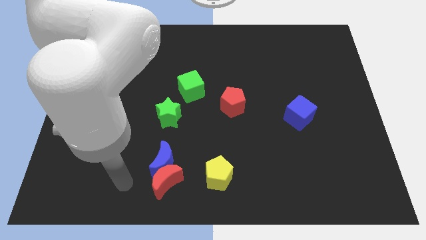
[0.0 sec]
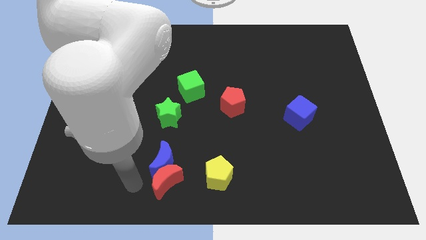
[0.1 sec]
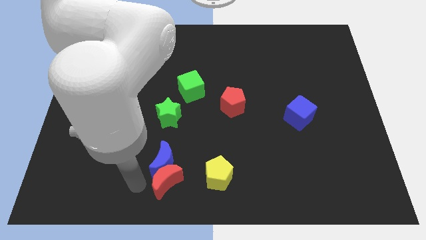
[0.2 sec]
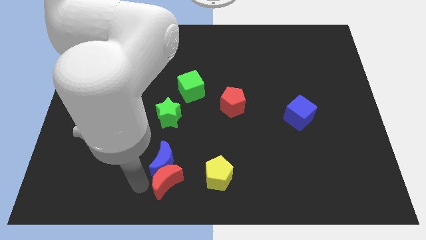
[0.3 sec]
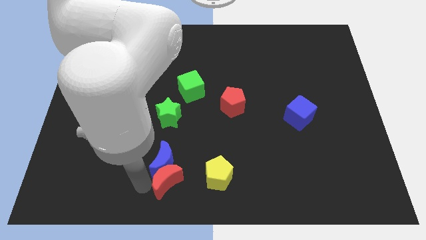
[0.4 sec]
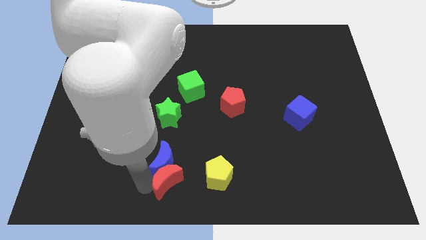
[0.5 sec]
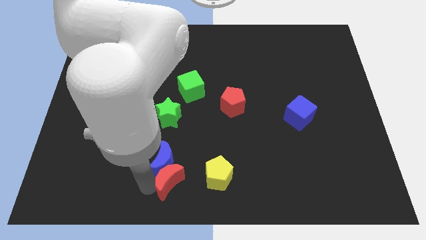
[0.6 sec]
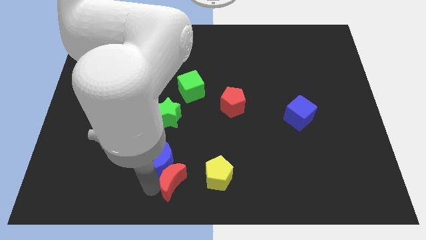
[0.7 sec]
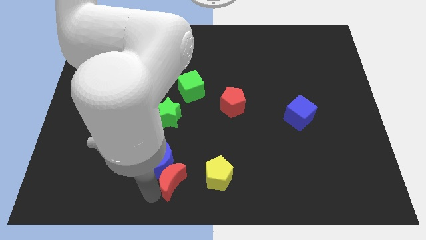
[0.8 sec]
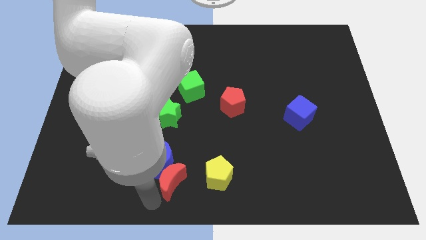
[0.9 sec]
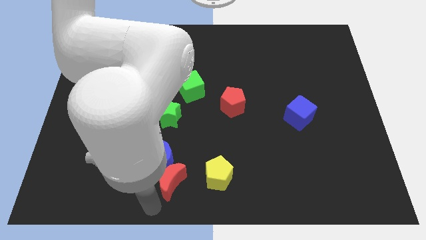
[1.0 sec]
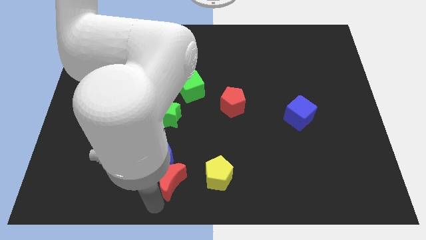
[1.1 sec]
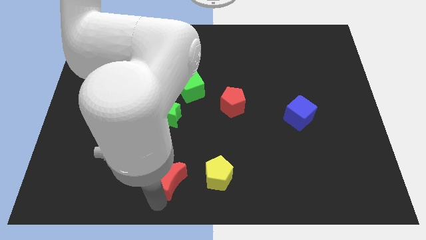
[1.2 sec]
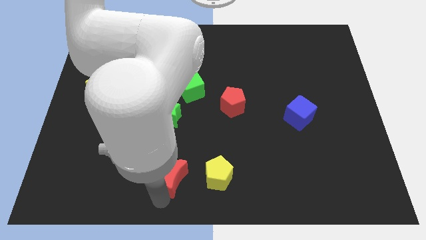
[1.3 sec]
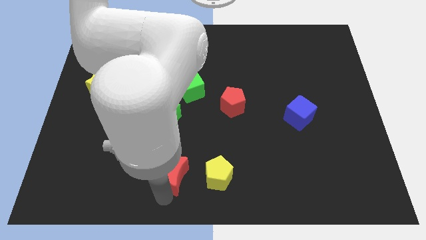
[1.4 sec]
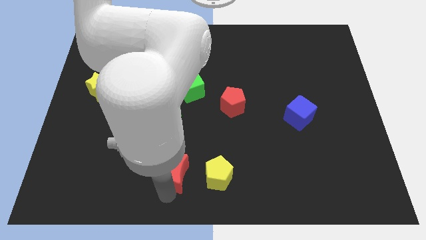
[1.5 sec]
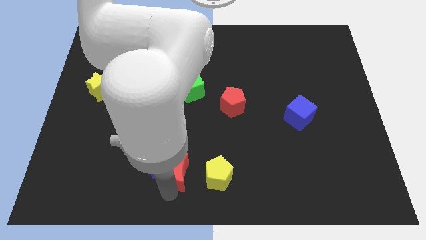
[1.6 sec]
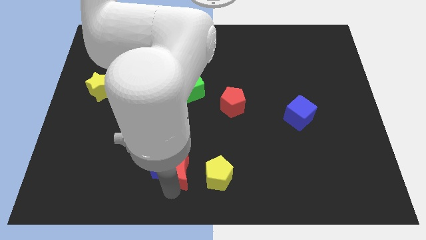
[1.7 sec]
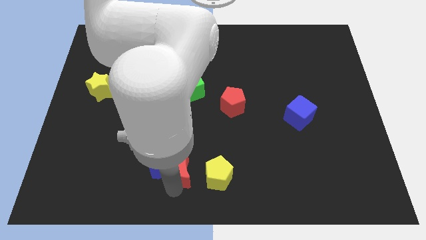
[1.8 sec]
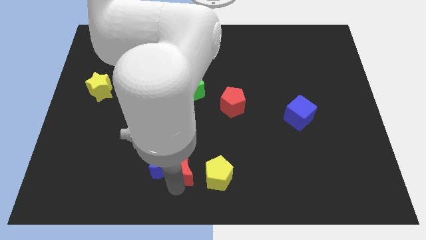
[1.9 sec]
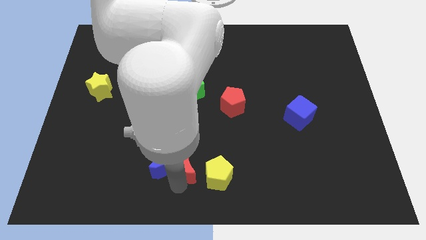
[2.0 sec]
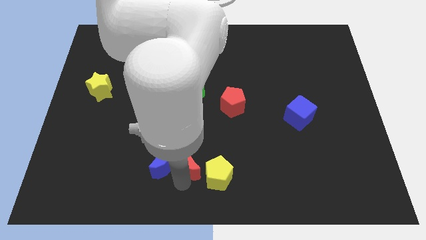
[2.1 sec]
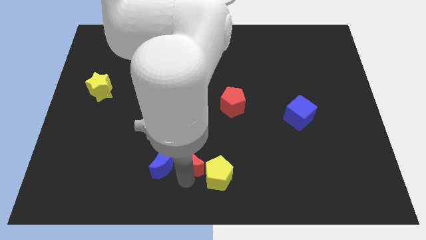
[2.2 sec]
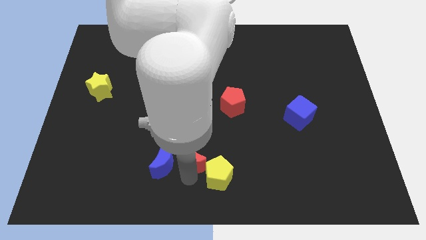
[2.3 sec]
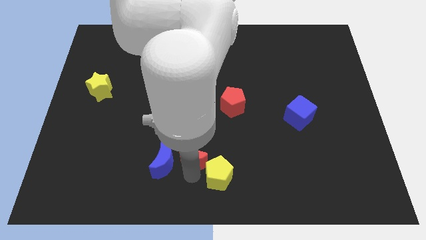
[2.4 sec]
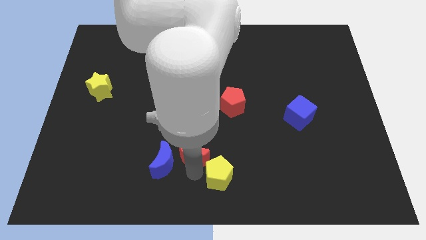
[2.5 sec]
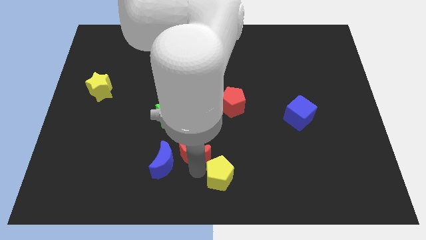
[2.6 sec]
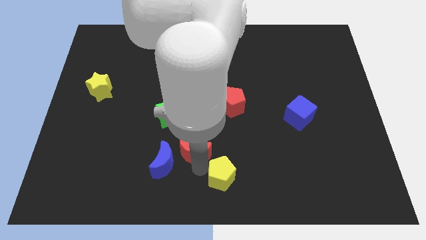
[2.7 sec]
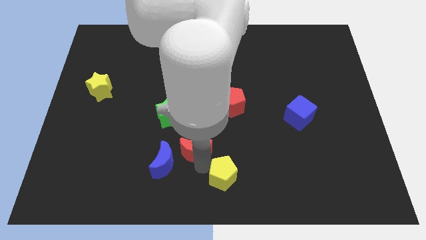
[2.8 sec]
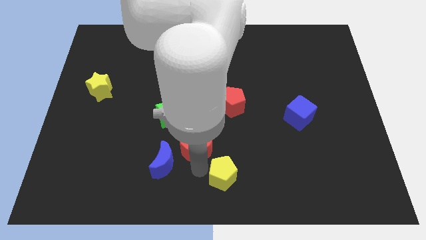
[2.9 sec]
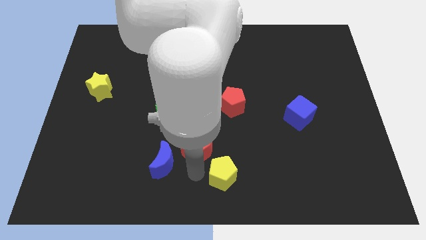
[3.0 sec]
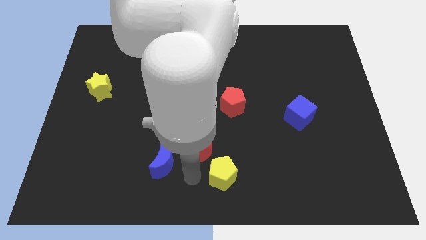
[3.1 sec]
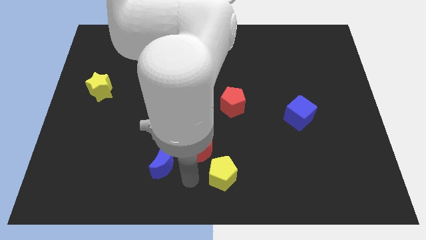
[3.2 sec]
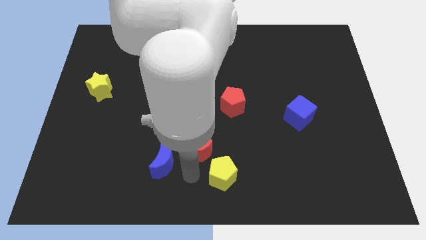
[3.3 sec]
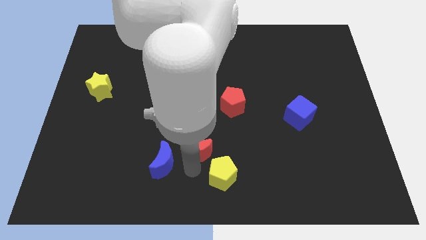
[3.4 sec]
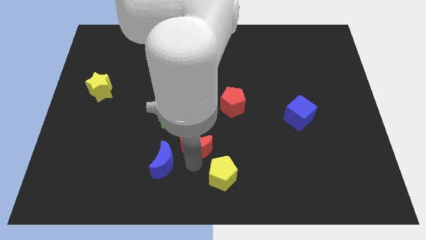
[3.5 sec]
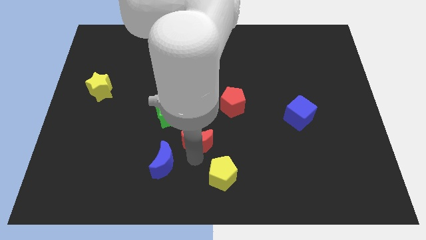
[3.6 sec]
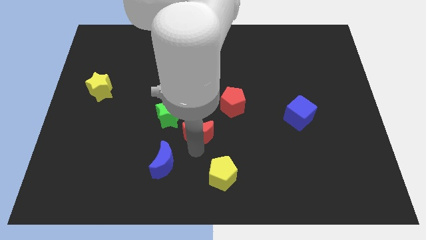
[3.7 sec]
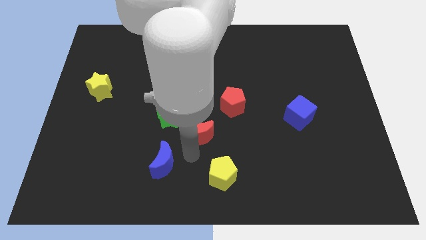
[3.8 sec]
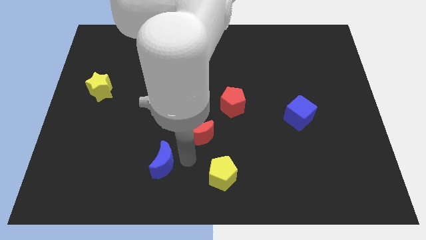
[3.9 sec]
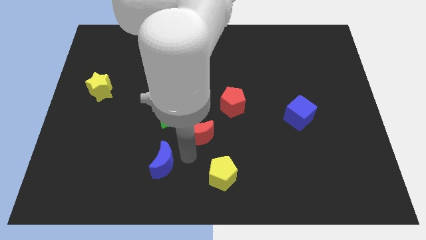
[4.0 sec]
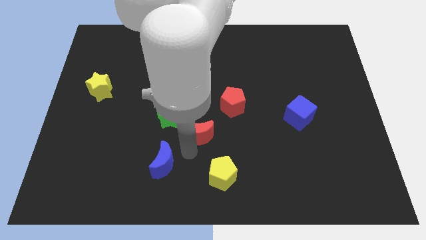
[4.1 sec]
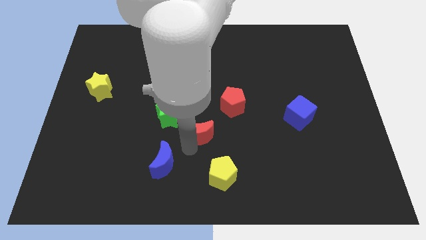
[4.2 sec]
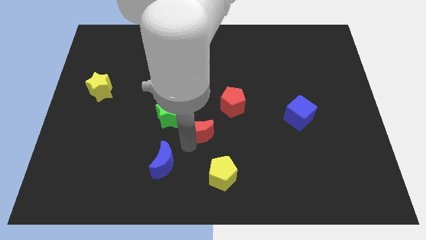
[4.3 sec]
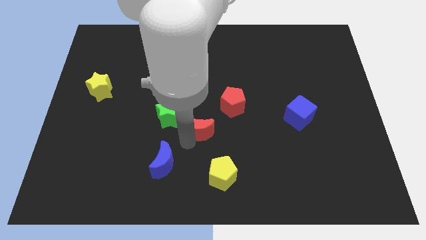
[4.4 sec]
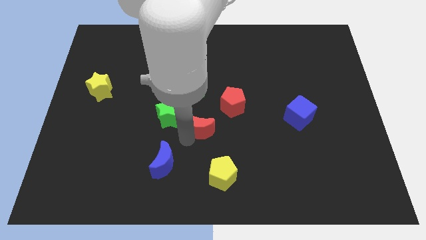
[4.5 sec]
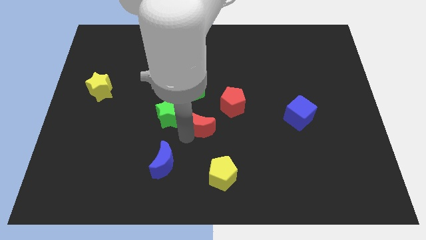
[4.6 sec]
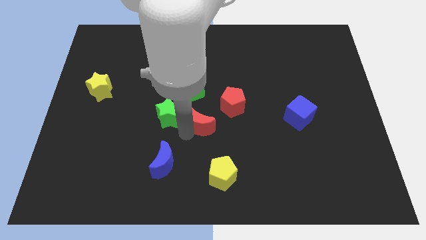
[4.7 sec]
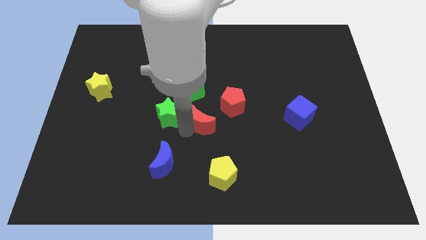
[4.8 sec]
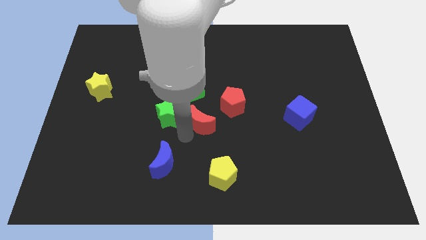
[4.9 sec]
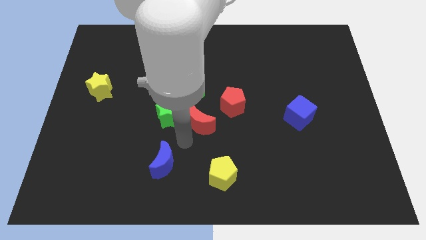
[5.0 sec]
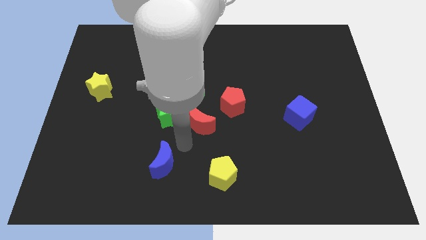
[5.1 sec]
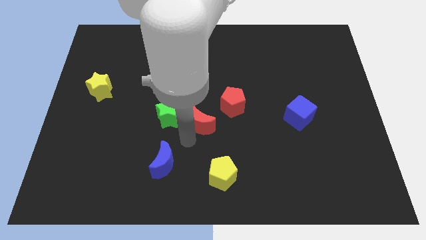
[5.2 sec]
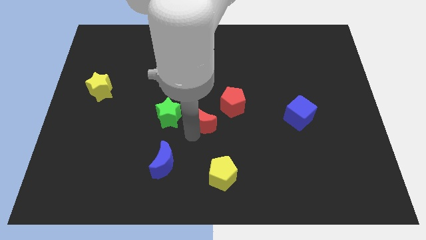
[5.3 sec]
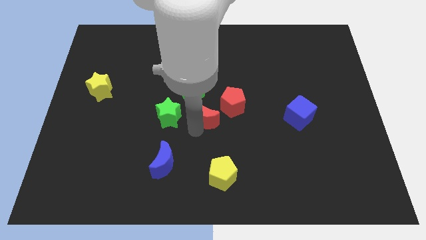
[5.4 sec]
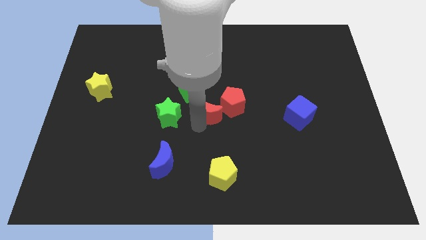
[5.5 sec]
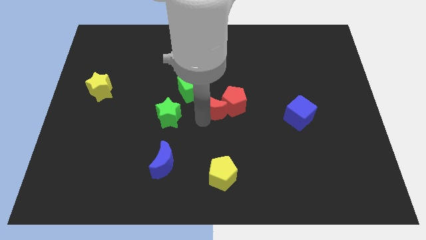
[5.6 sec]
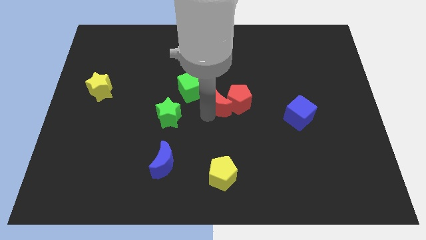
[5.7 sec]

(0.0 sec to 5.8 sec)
push the red moon just right of the green cube

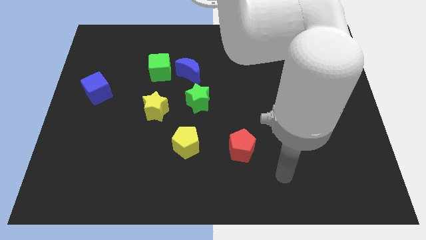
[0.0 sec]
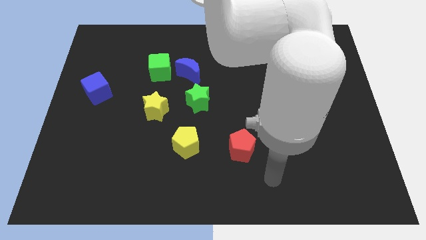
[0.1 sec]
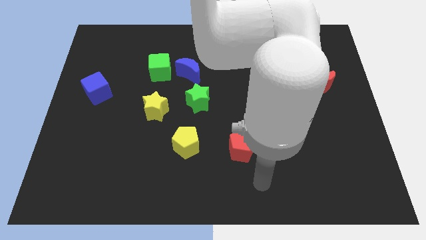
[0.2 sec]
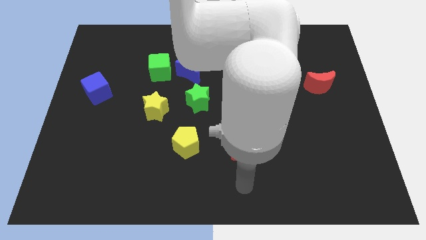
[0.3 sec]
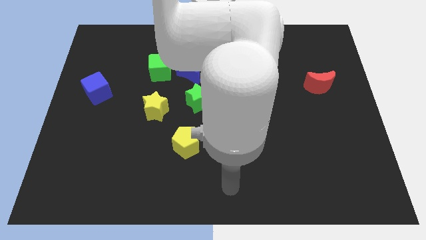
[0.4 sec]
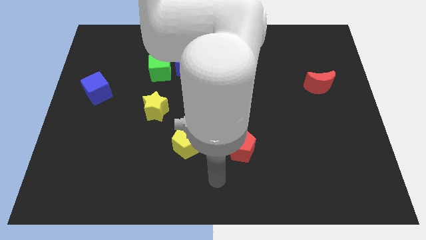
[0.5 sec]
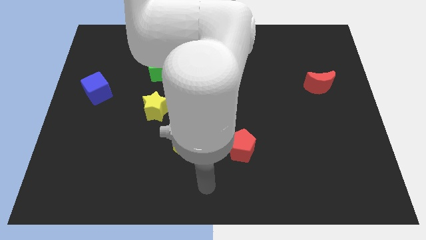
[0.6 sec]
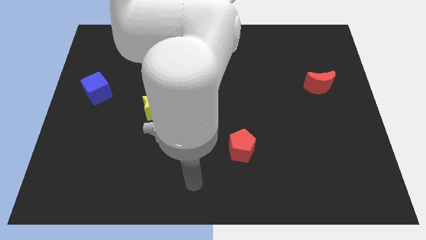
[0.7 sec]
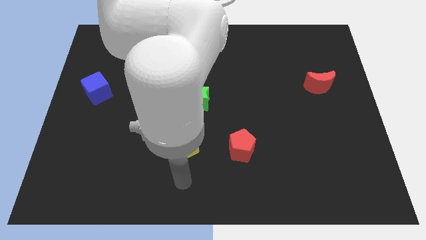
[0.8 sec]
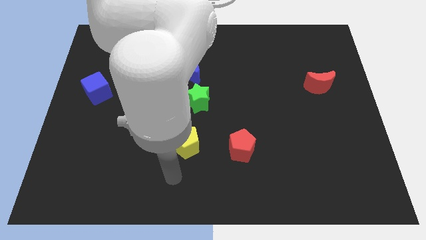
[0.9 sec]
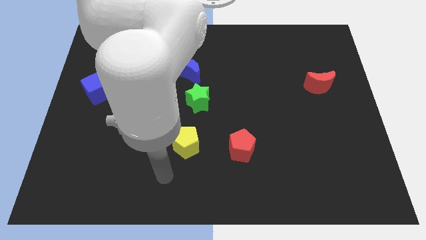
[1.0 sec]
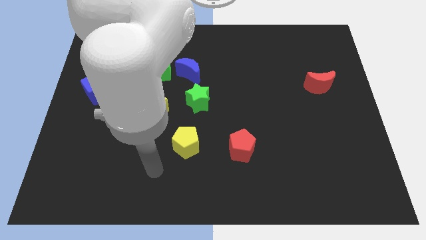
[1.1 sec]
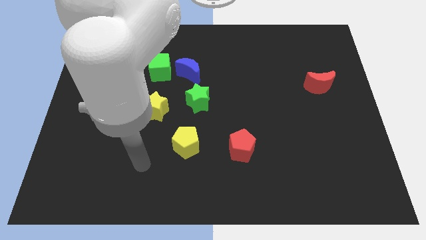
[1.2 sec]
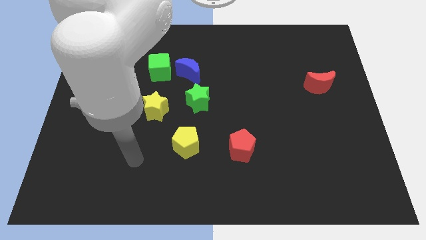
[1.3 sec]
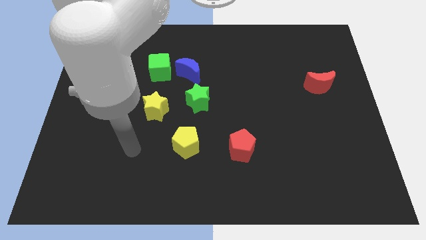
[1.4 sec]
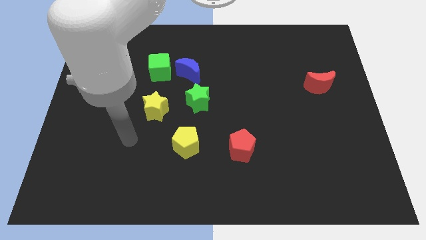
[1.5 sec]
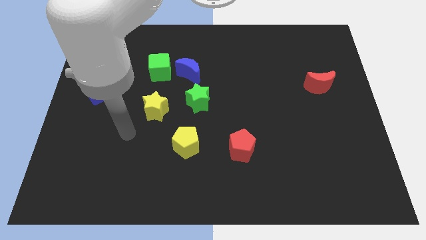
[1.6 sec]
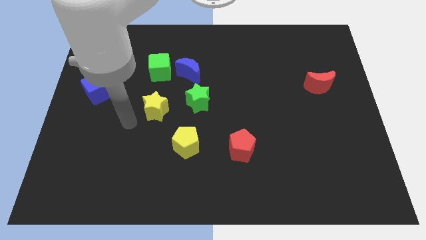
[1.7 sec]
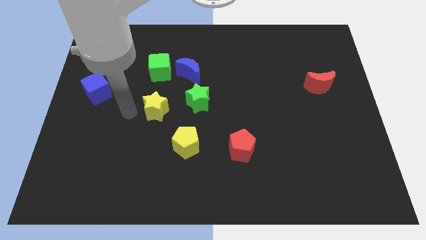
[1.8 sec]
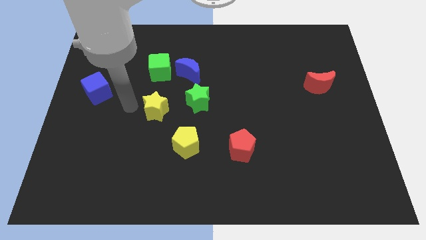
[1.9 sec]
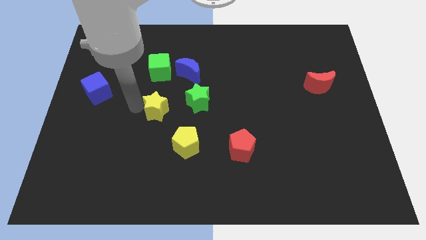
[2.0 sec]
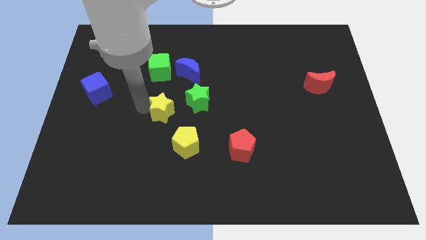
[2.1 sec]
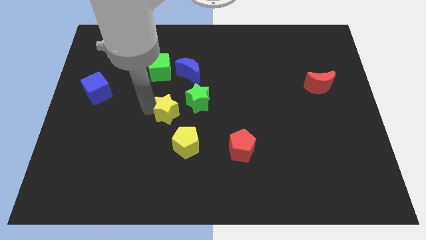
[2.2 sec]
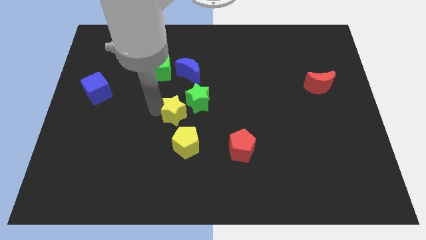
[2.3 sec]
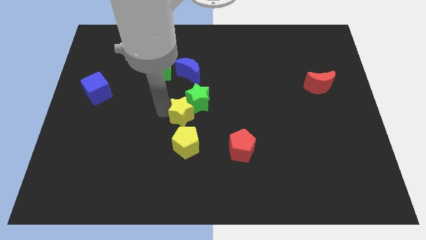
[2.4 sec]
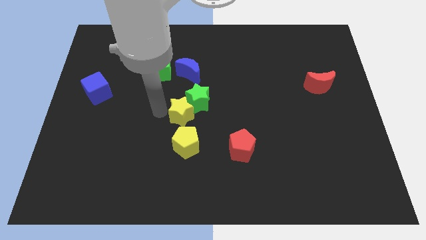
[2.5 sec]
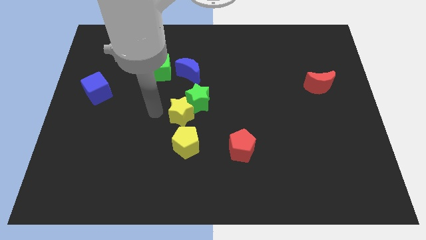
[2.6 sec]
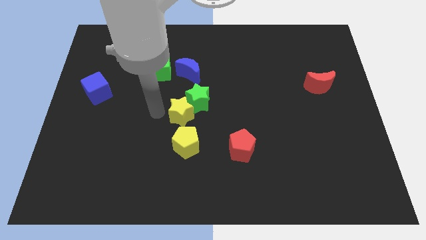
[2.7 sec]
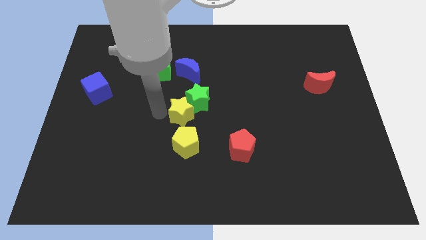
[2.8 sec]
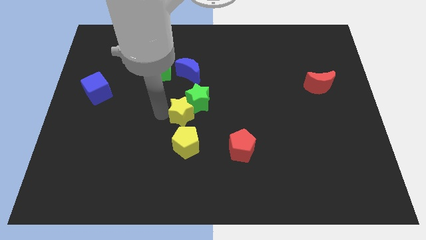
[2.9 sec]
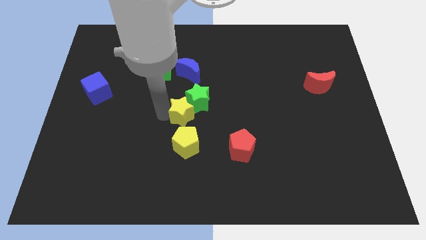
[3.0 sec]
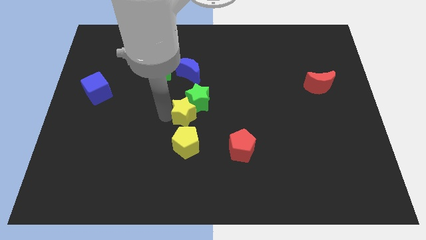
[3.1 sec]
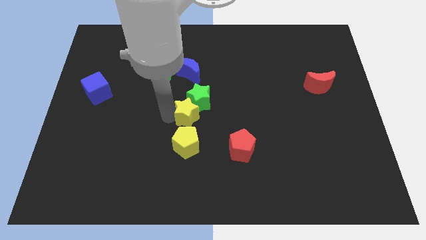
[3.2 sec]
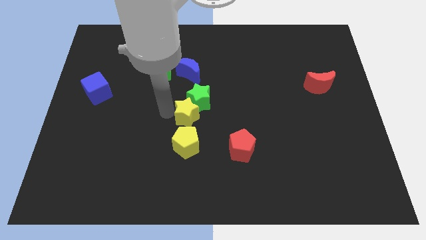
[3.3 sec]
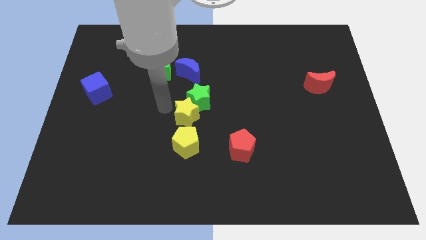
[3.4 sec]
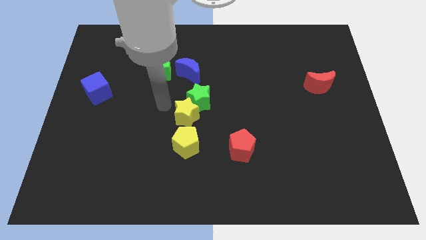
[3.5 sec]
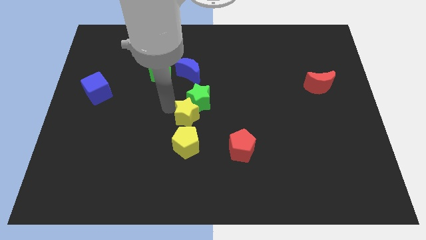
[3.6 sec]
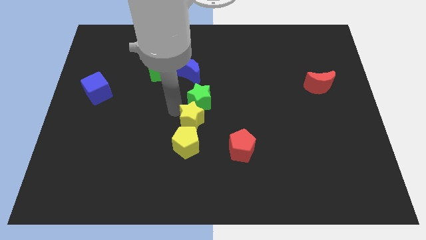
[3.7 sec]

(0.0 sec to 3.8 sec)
move the yellow star to the top right side of the yellow pentagon
